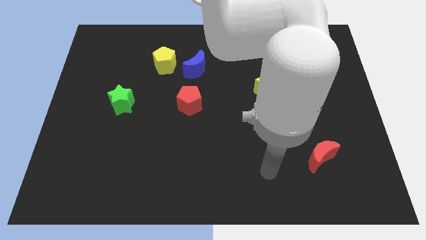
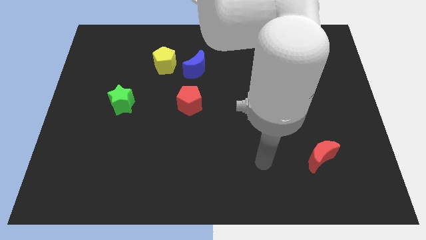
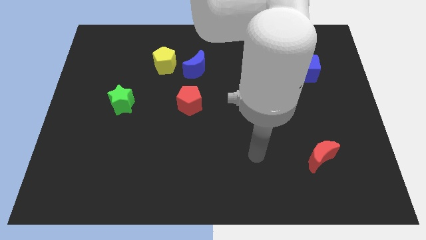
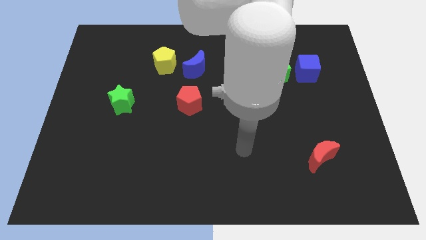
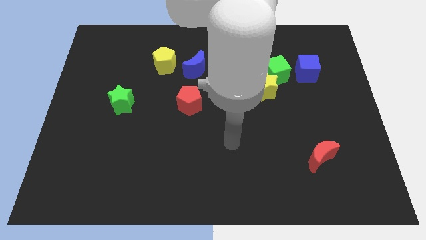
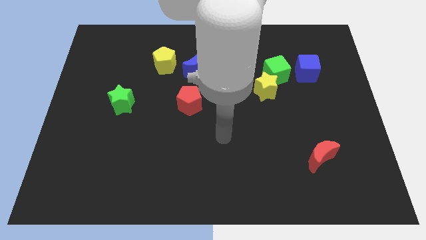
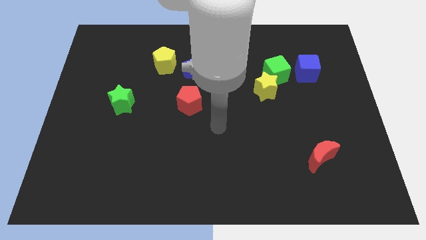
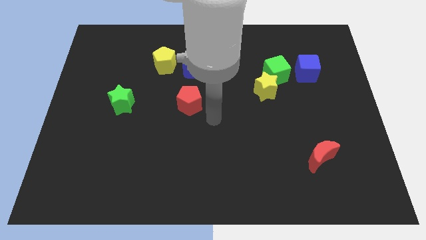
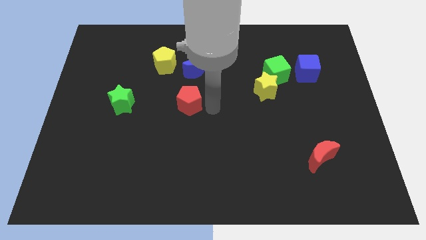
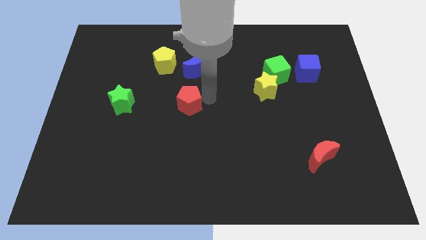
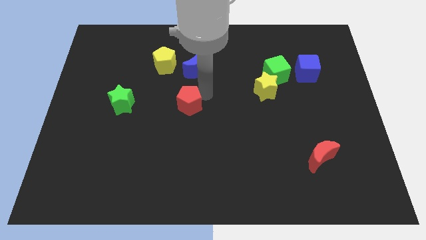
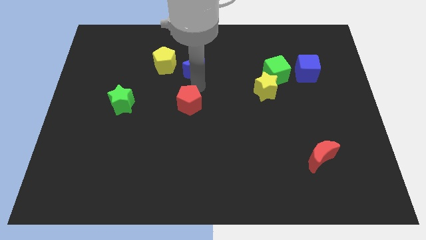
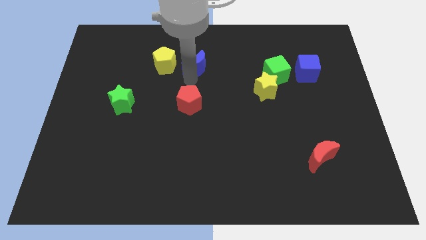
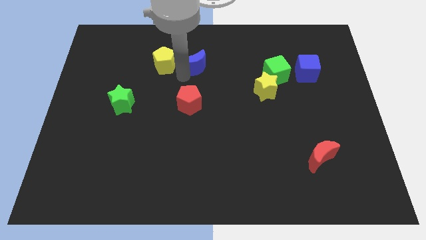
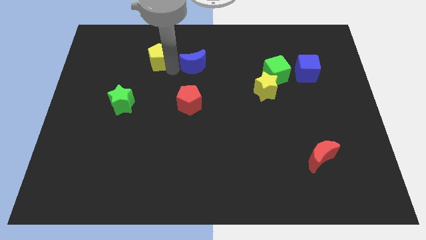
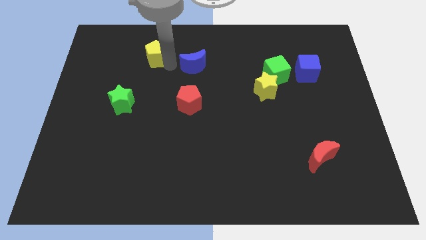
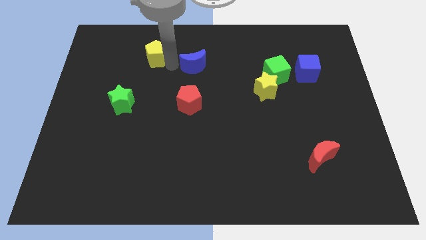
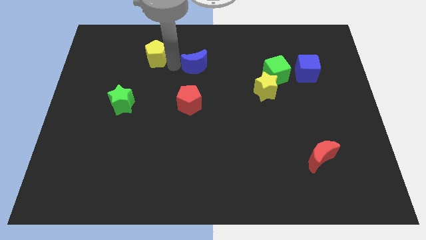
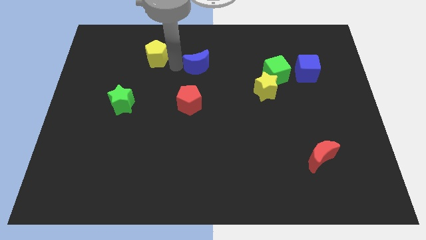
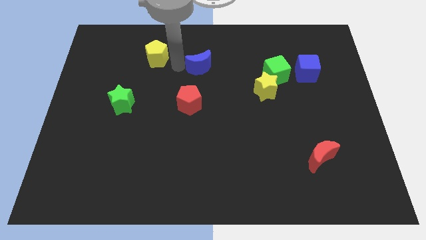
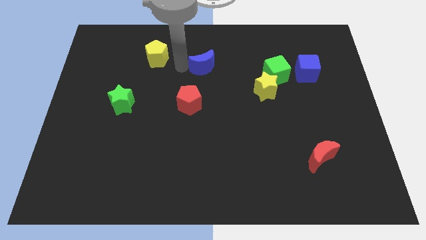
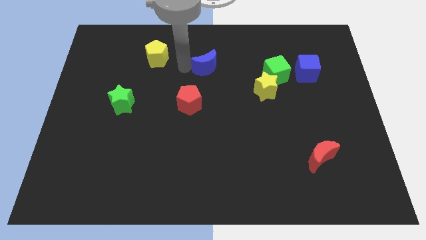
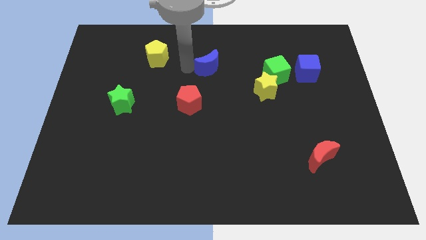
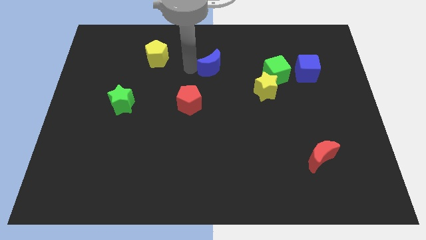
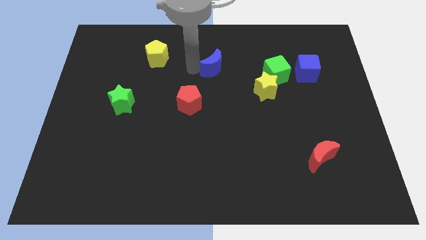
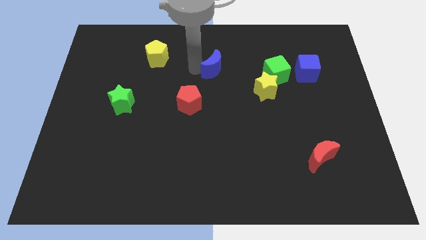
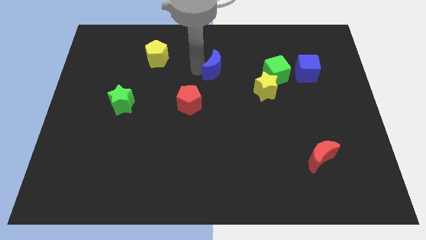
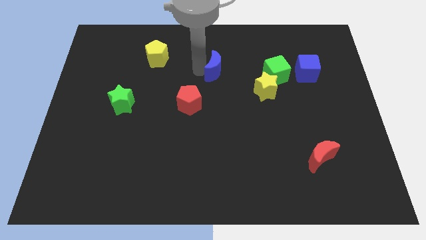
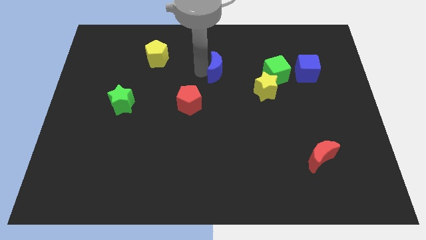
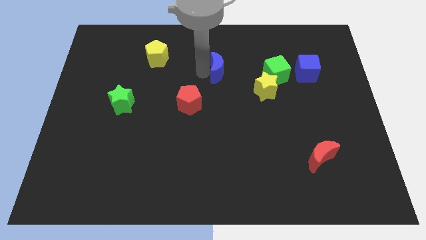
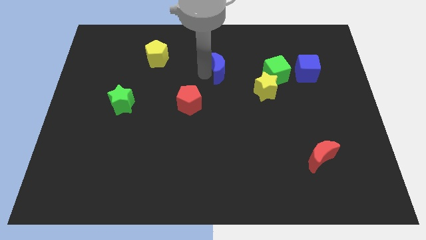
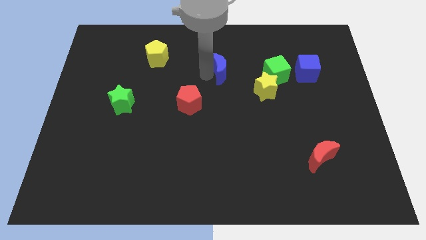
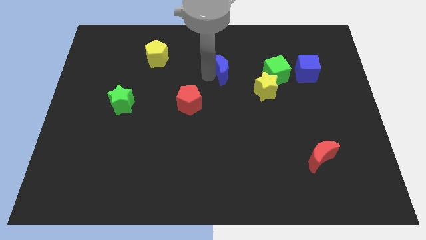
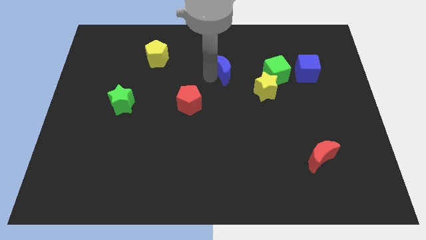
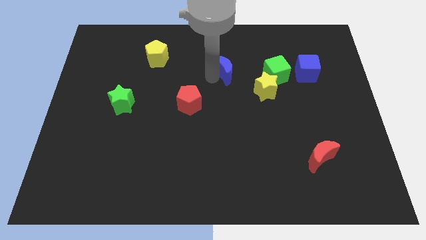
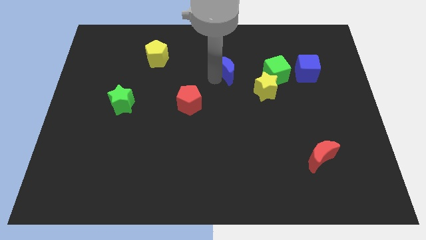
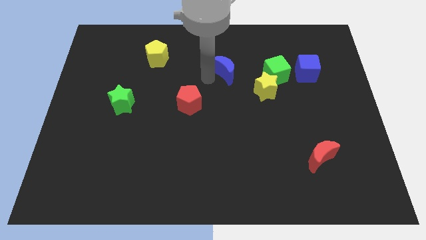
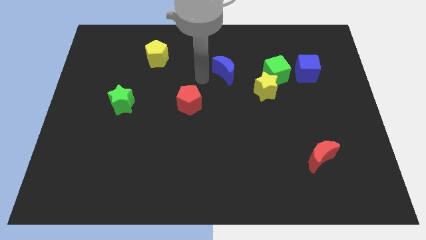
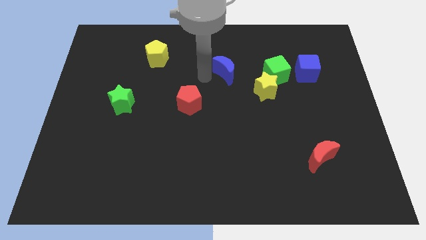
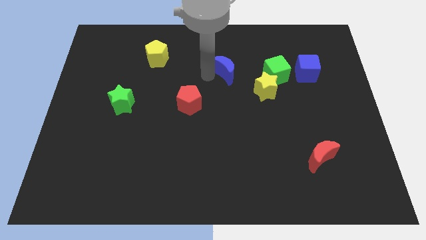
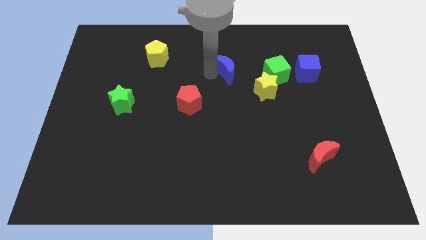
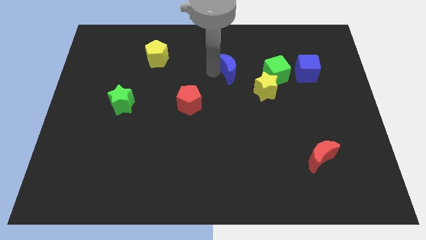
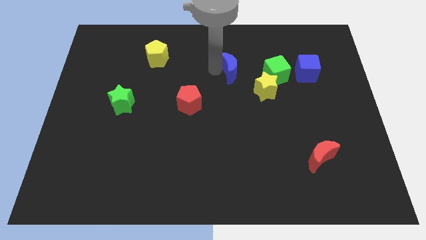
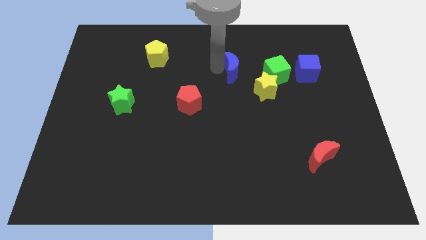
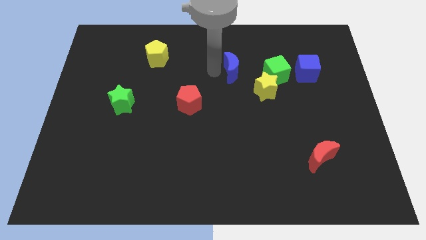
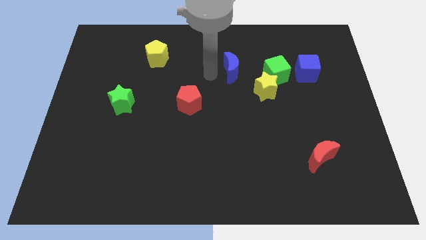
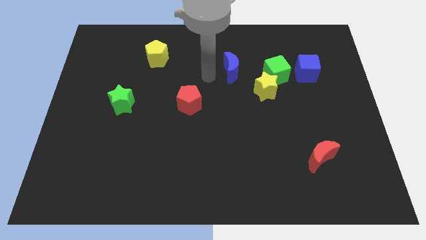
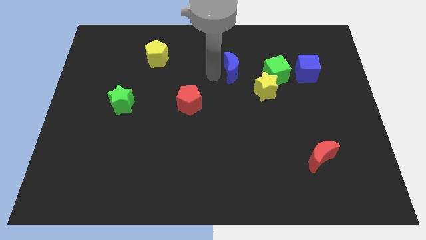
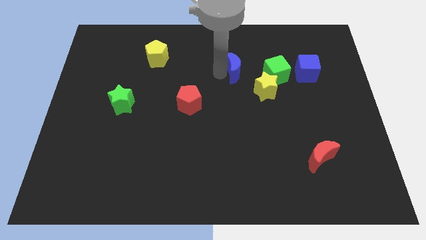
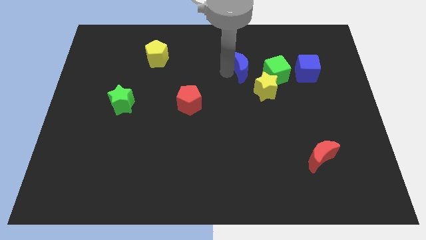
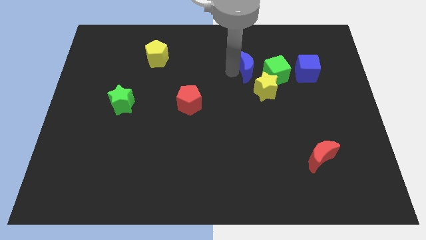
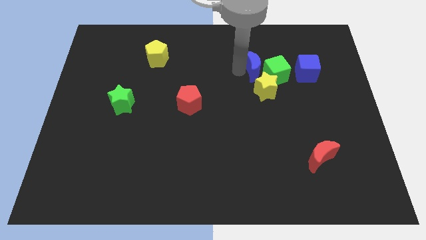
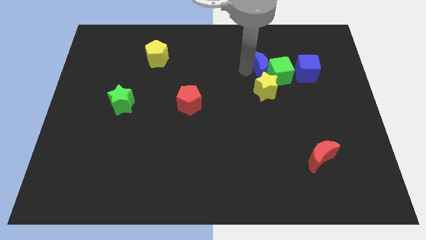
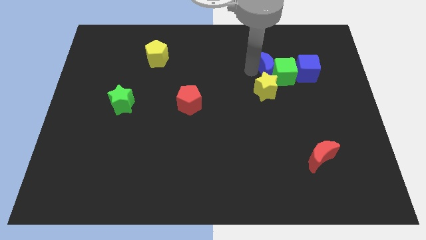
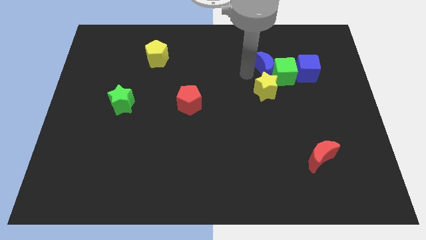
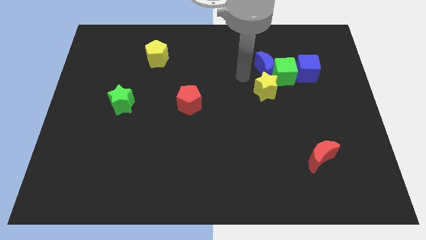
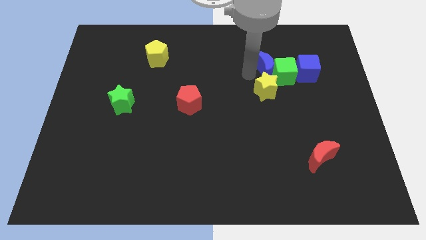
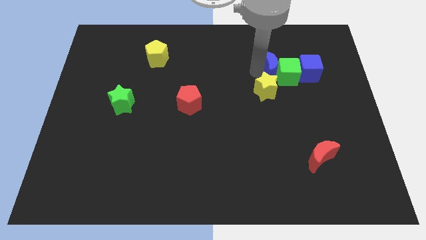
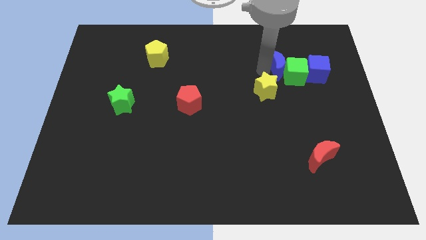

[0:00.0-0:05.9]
move the blue moon right

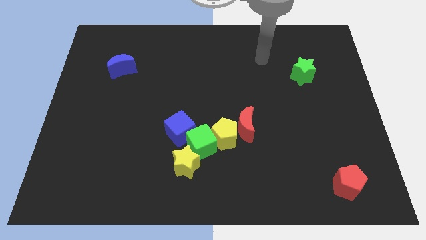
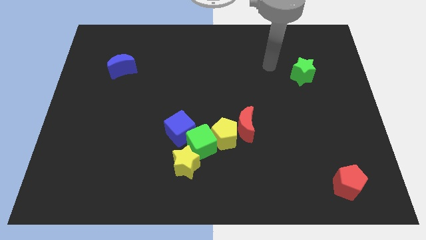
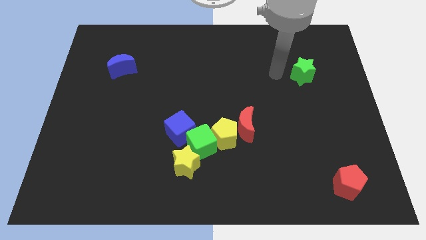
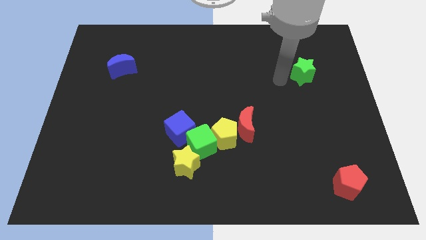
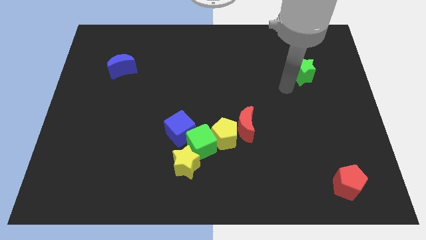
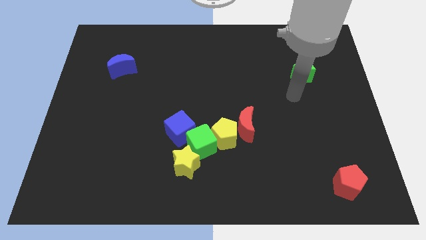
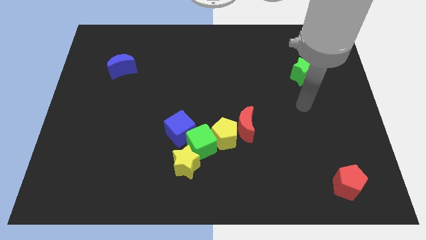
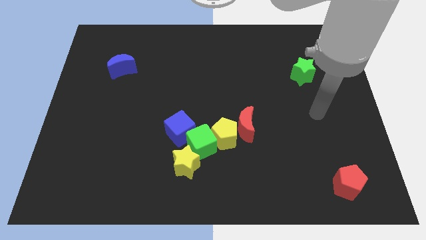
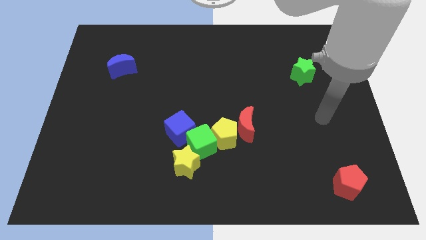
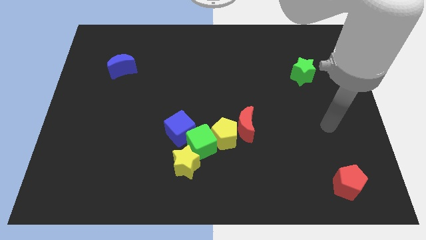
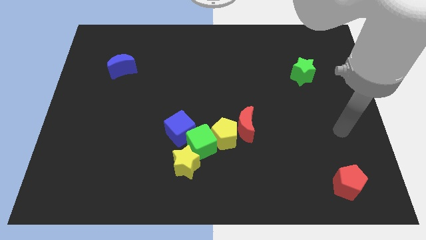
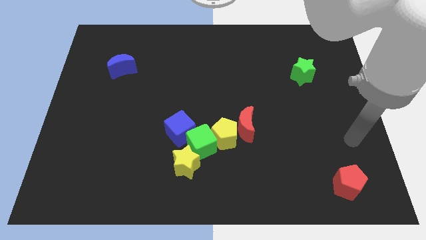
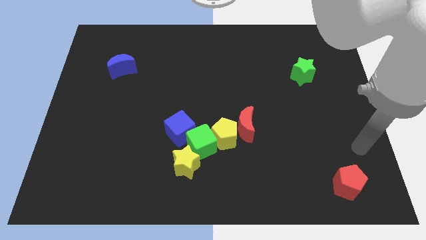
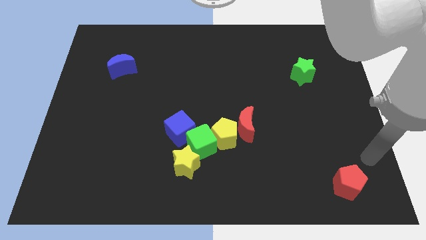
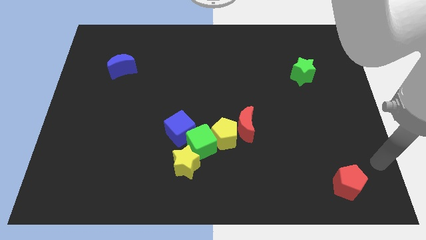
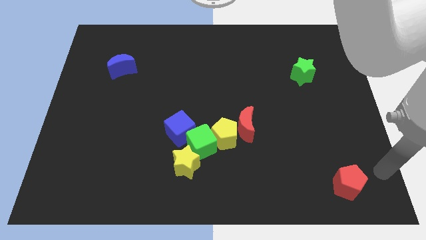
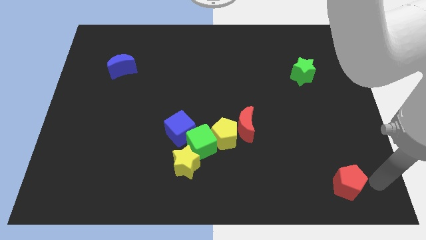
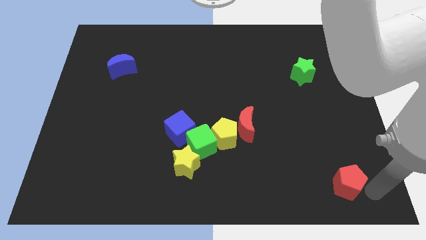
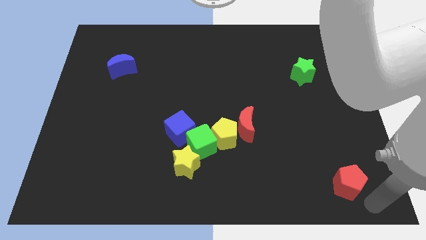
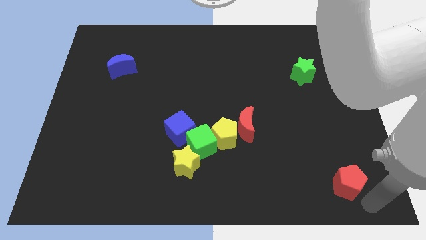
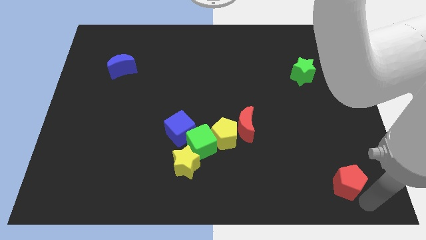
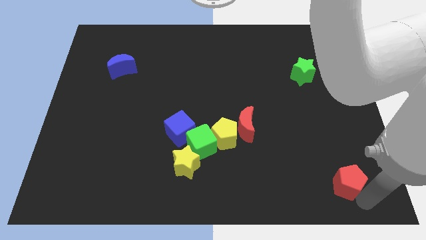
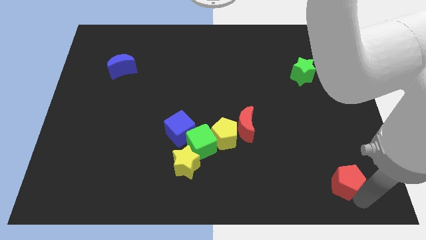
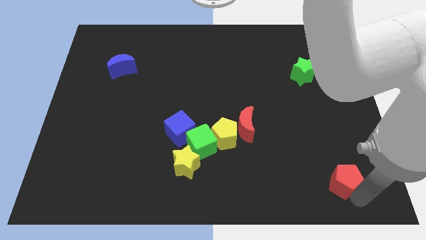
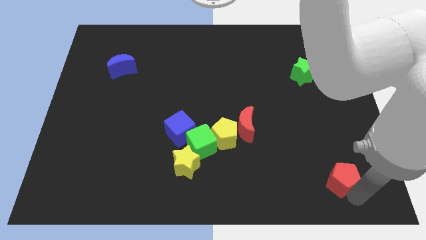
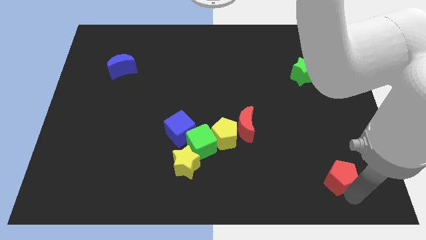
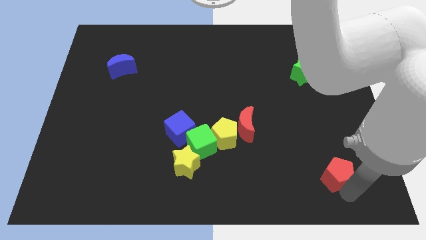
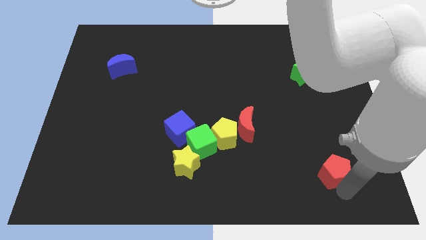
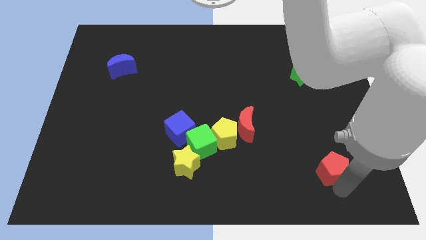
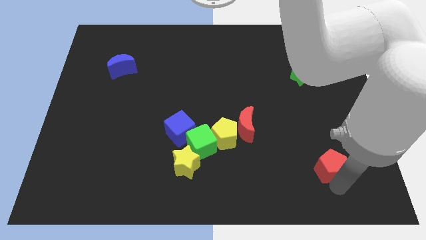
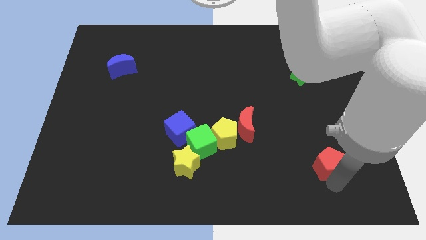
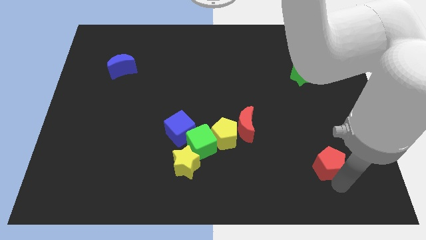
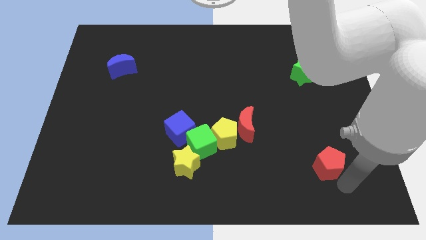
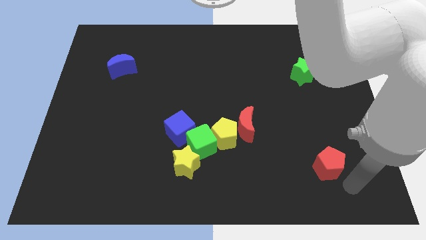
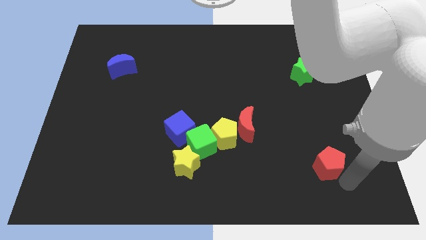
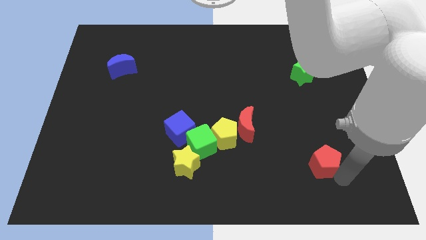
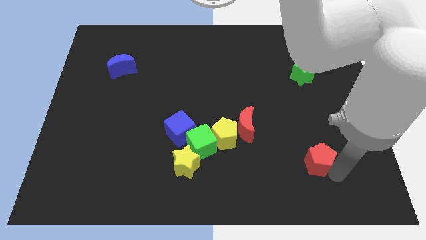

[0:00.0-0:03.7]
move the red pentagon upwards and left slightly
